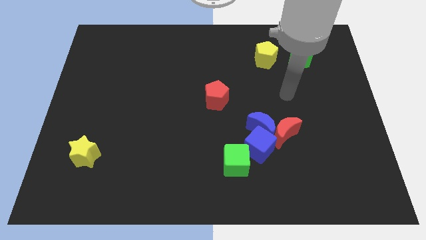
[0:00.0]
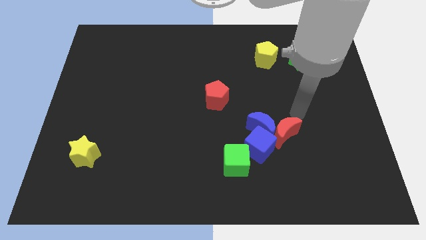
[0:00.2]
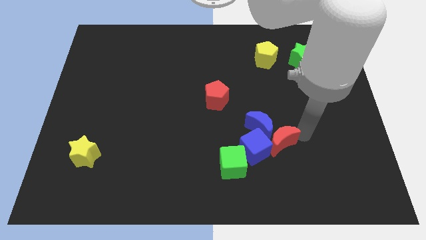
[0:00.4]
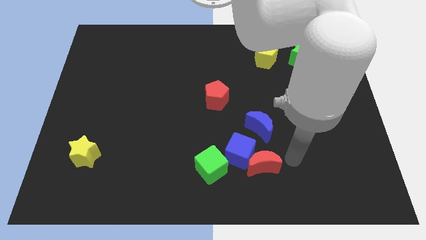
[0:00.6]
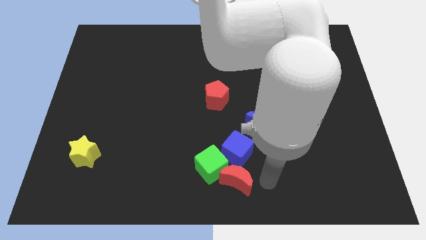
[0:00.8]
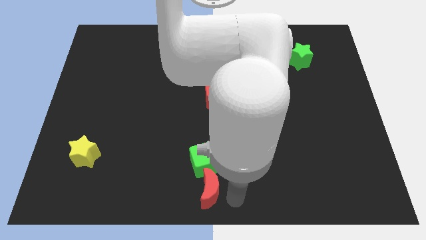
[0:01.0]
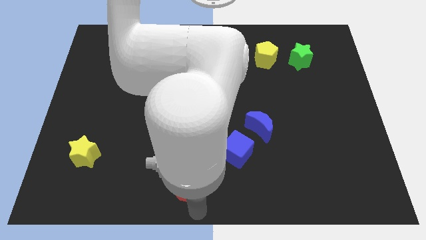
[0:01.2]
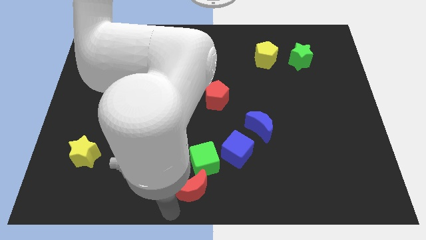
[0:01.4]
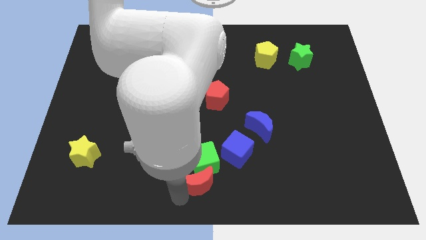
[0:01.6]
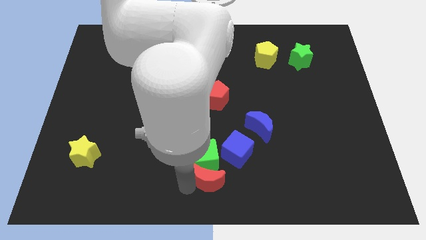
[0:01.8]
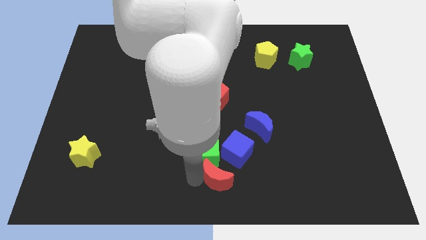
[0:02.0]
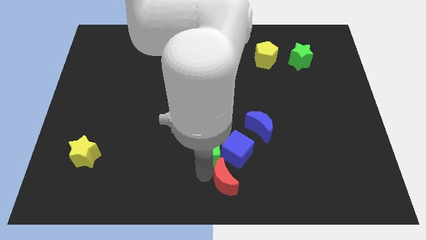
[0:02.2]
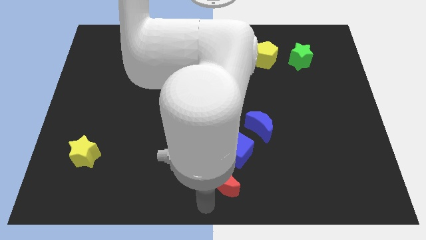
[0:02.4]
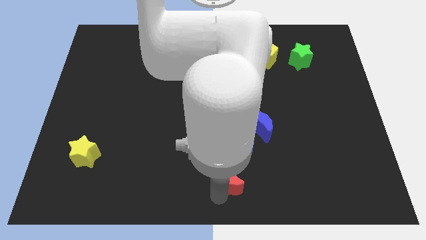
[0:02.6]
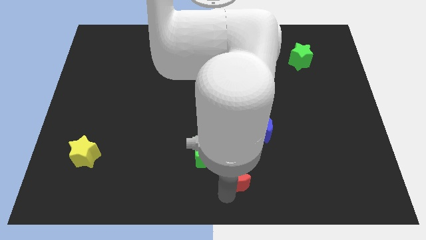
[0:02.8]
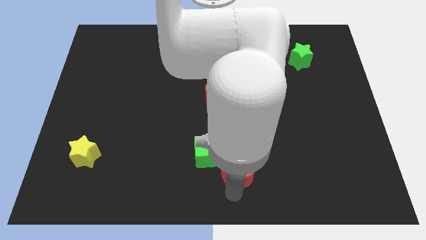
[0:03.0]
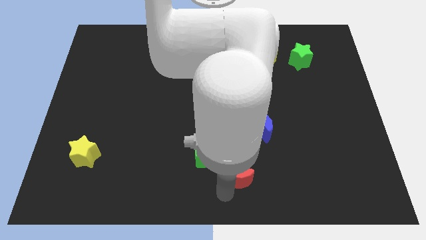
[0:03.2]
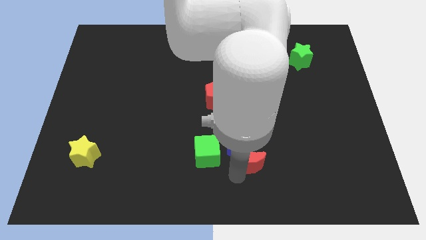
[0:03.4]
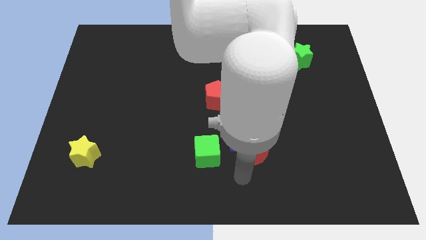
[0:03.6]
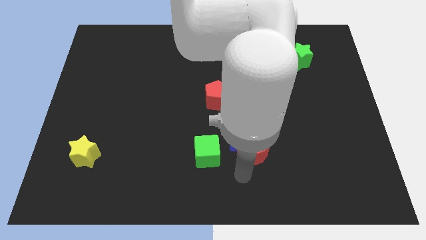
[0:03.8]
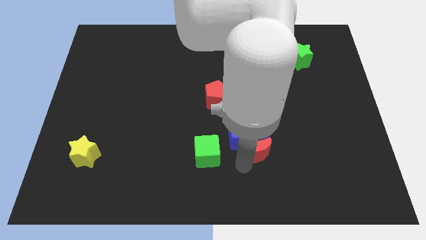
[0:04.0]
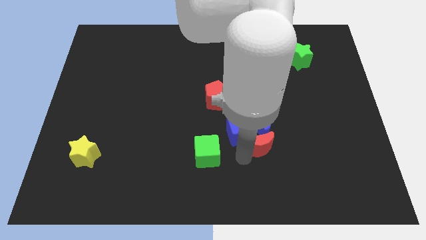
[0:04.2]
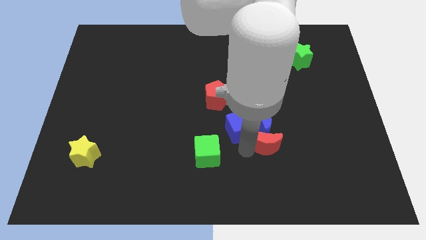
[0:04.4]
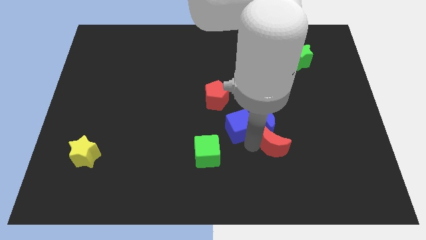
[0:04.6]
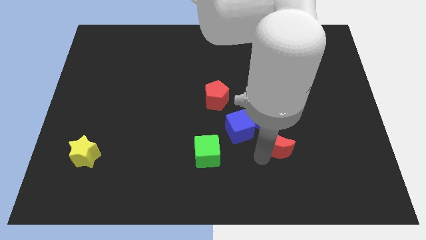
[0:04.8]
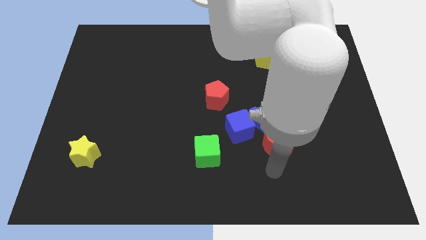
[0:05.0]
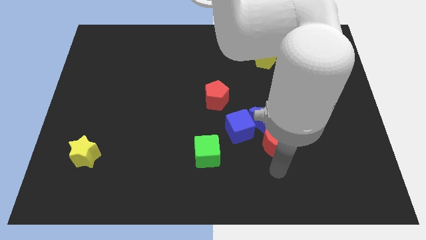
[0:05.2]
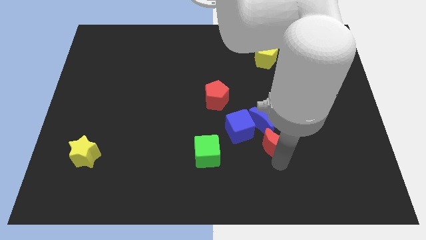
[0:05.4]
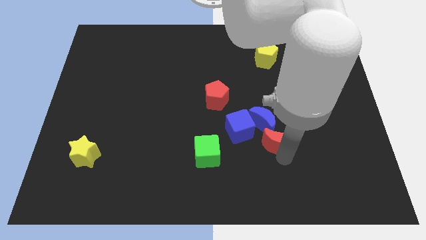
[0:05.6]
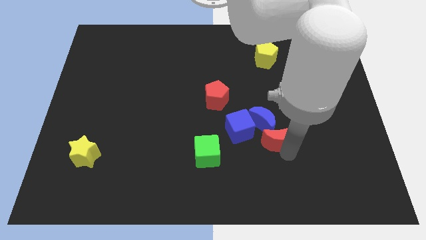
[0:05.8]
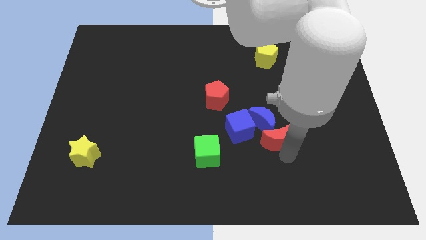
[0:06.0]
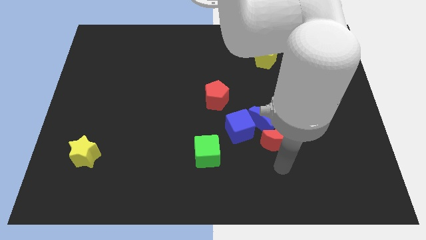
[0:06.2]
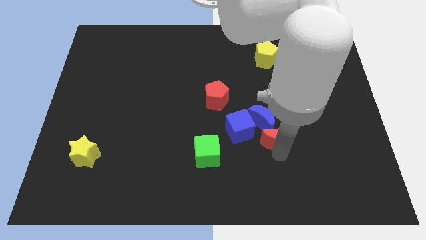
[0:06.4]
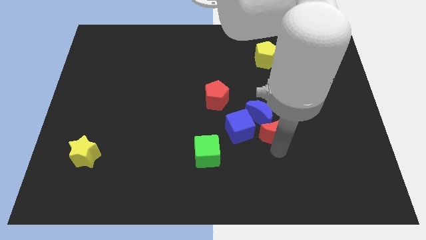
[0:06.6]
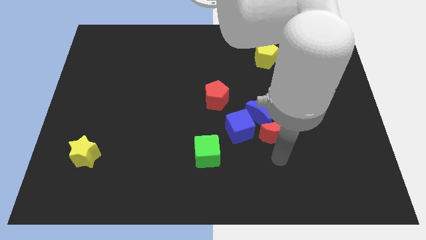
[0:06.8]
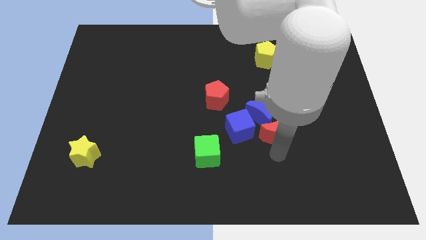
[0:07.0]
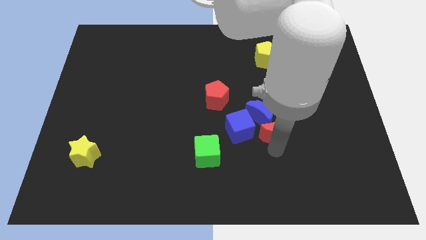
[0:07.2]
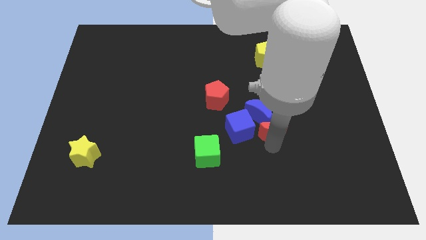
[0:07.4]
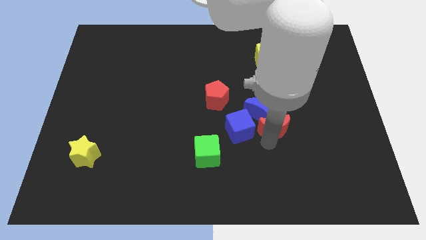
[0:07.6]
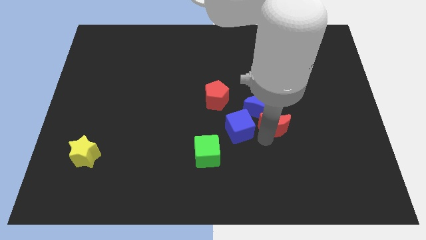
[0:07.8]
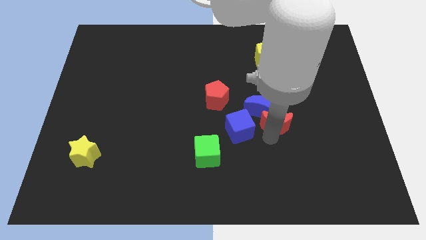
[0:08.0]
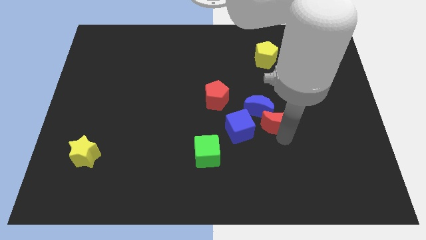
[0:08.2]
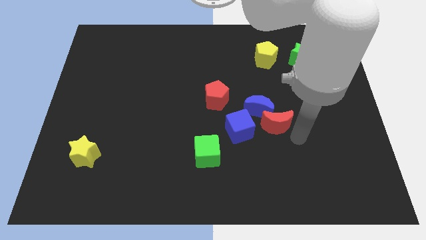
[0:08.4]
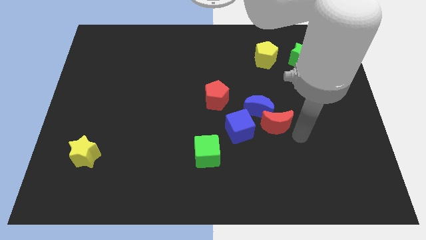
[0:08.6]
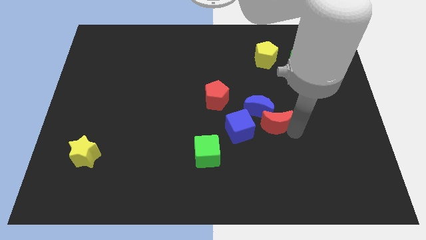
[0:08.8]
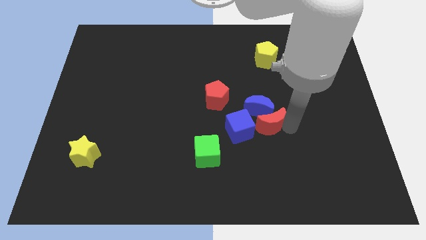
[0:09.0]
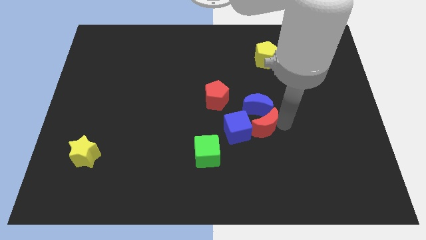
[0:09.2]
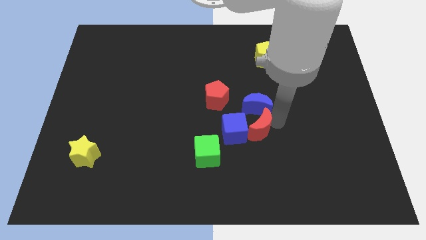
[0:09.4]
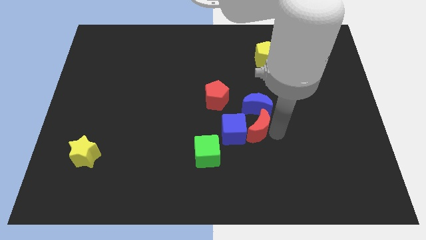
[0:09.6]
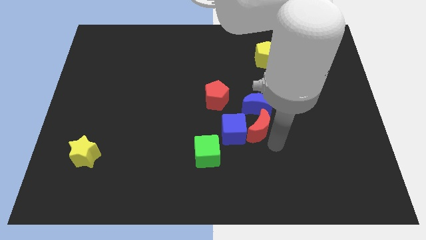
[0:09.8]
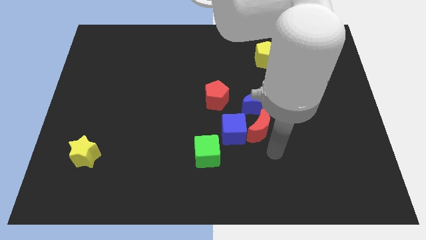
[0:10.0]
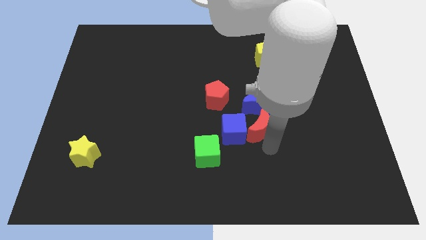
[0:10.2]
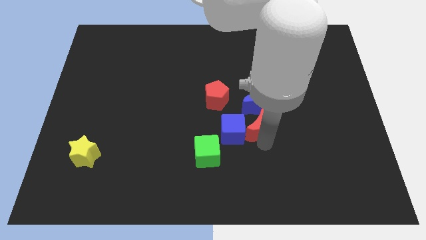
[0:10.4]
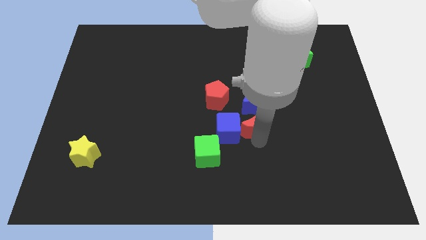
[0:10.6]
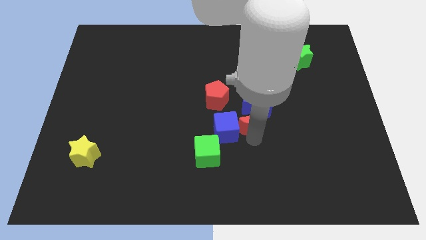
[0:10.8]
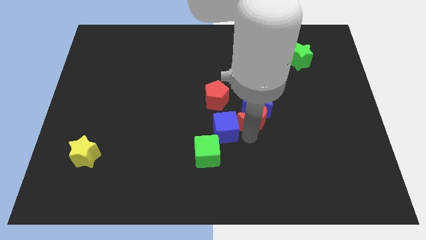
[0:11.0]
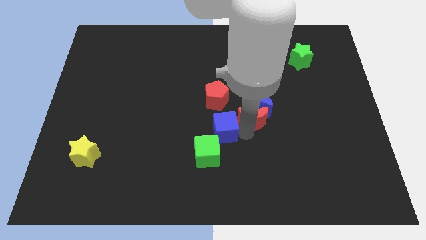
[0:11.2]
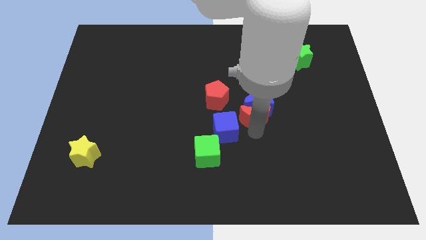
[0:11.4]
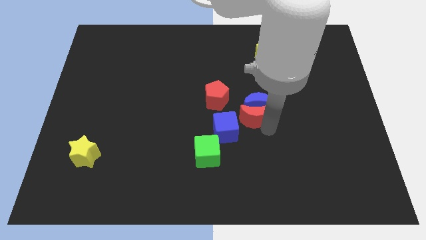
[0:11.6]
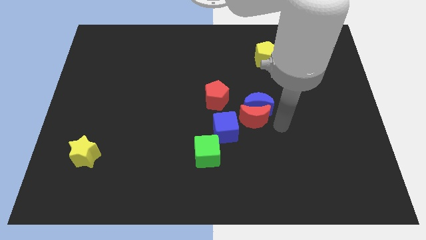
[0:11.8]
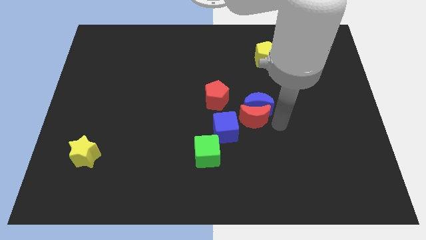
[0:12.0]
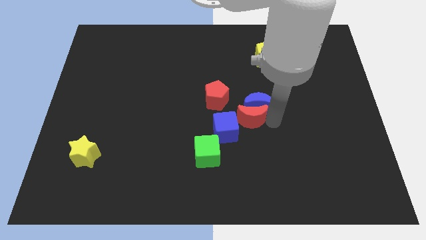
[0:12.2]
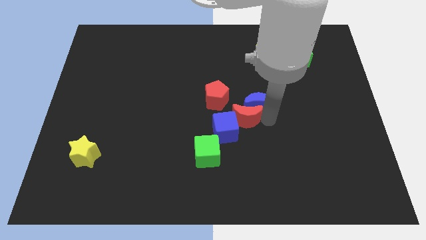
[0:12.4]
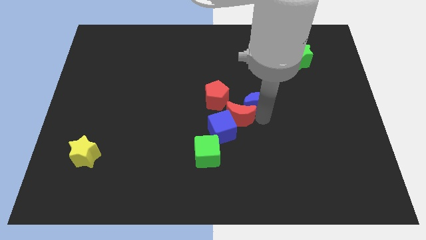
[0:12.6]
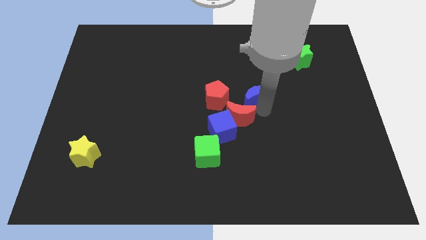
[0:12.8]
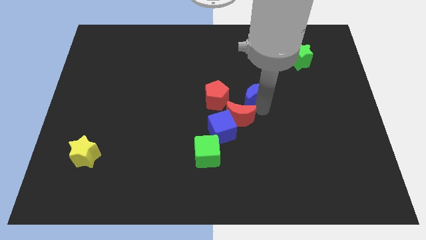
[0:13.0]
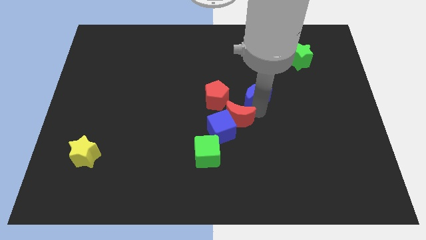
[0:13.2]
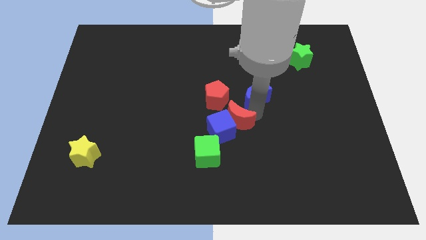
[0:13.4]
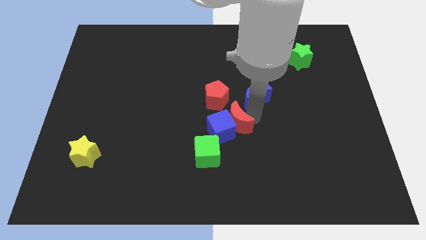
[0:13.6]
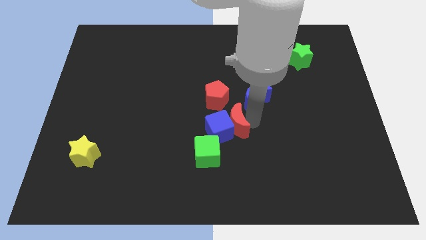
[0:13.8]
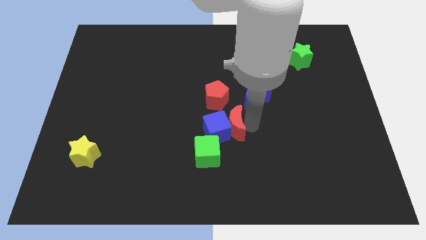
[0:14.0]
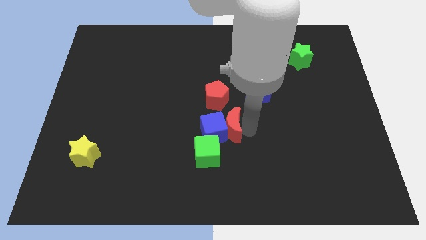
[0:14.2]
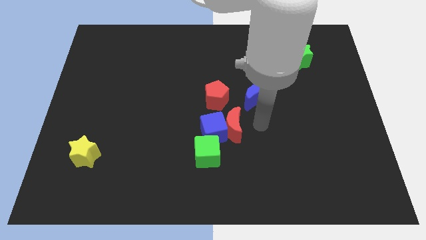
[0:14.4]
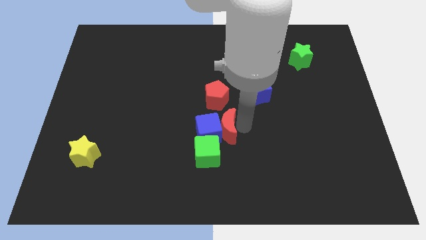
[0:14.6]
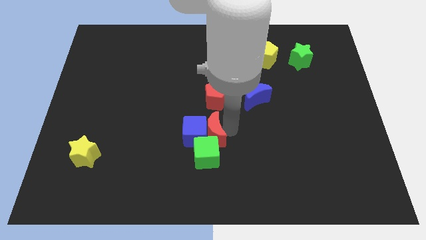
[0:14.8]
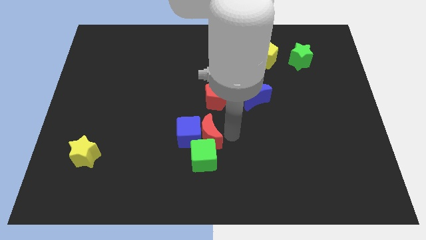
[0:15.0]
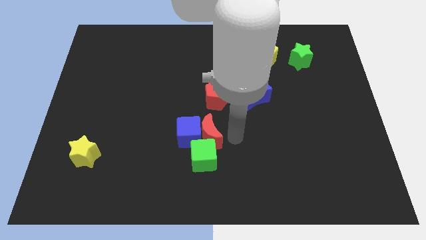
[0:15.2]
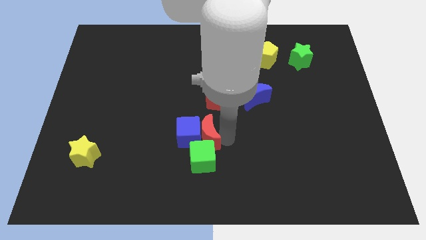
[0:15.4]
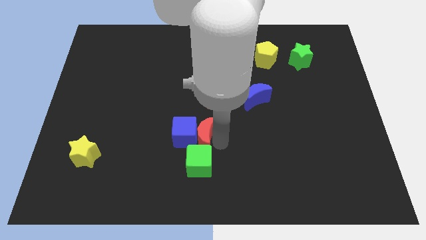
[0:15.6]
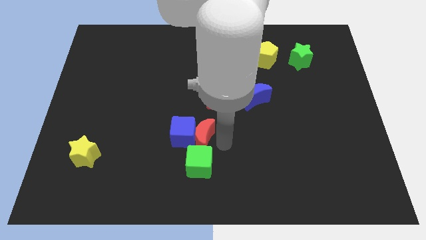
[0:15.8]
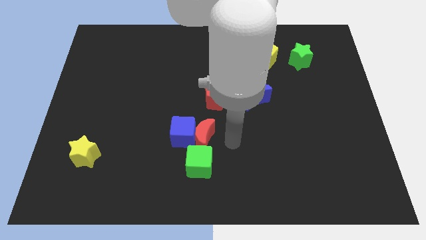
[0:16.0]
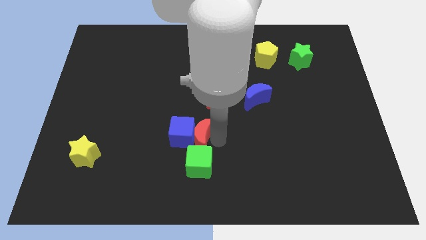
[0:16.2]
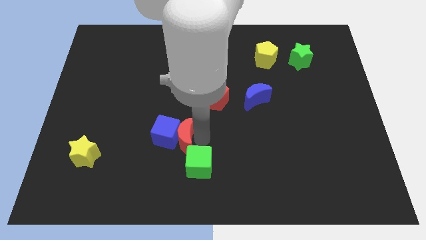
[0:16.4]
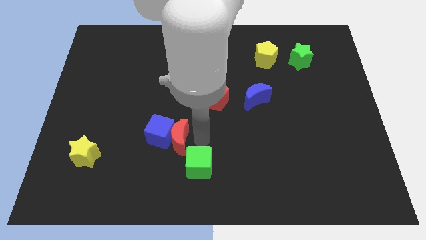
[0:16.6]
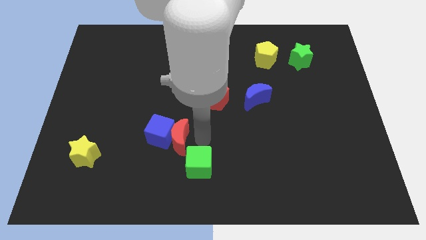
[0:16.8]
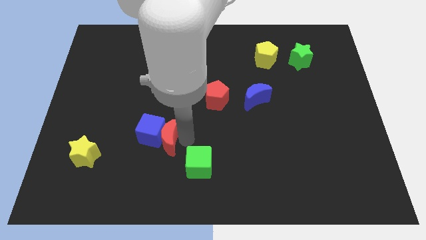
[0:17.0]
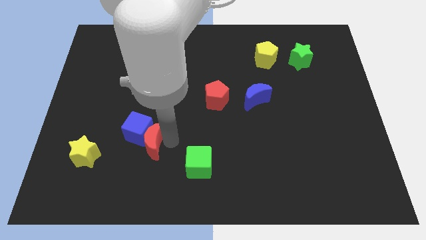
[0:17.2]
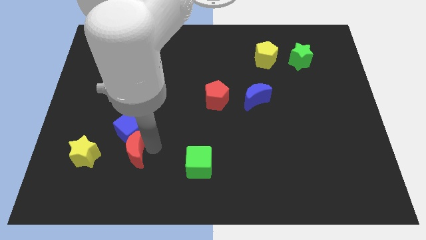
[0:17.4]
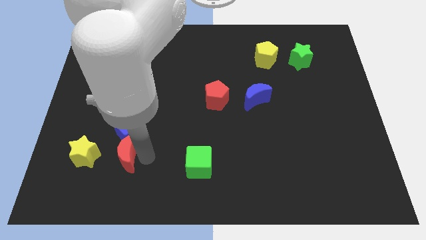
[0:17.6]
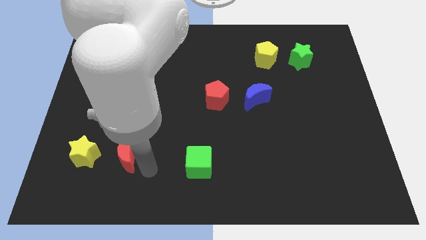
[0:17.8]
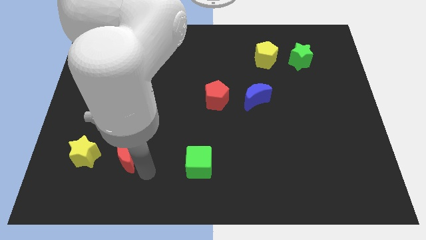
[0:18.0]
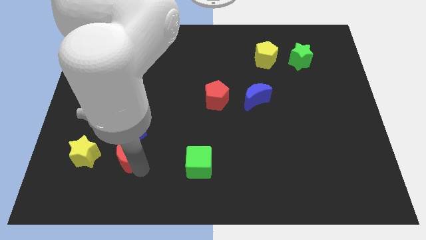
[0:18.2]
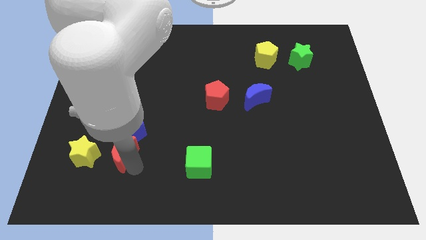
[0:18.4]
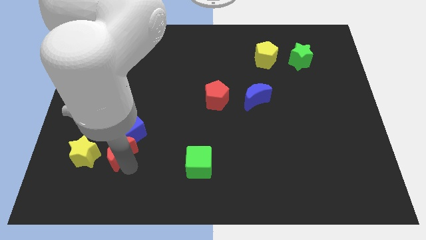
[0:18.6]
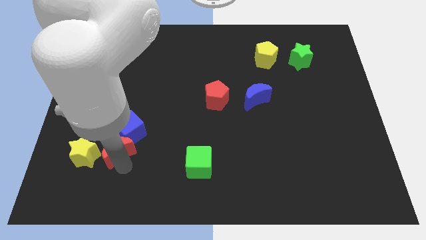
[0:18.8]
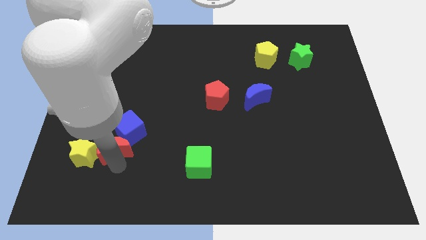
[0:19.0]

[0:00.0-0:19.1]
slide the red moon next to the yellow star
